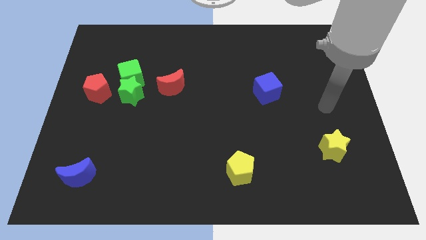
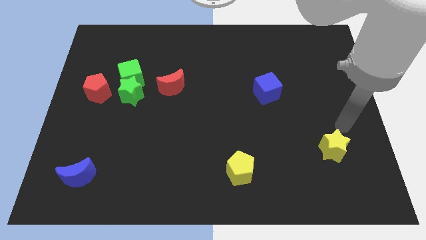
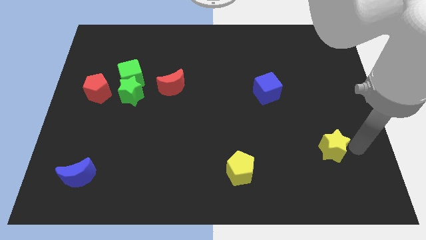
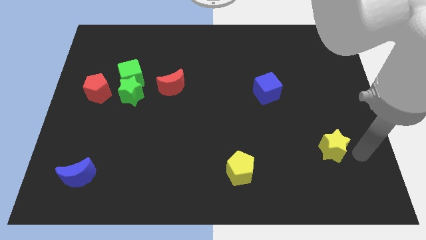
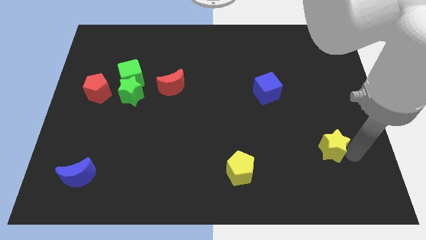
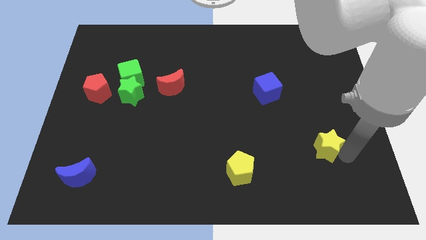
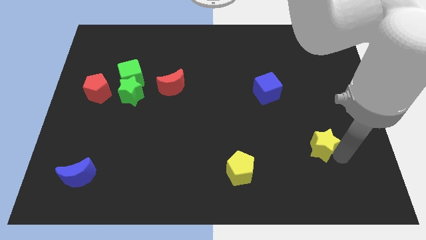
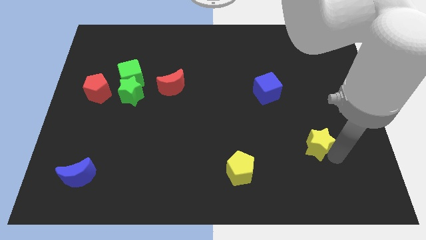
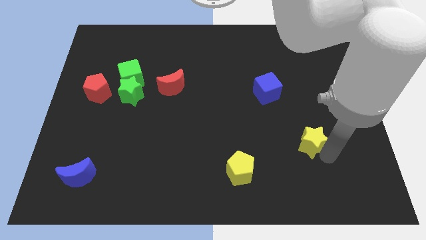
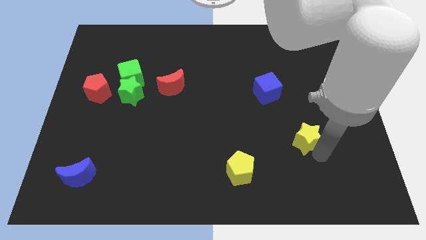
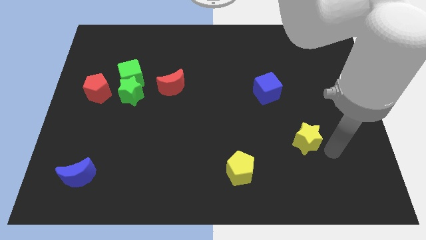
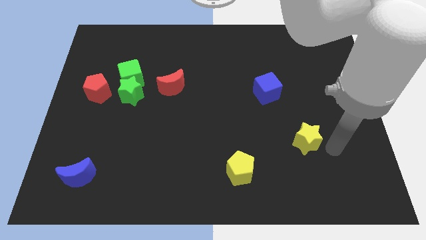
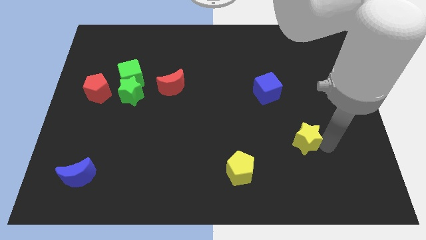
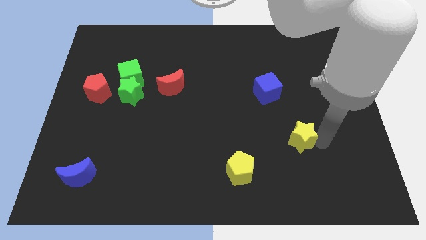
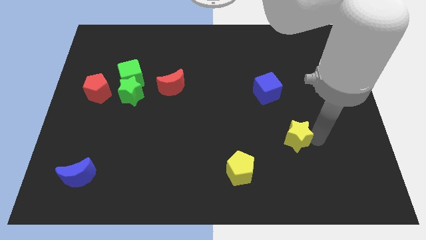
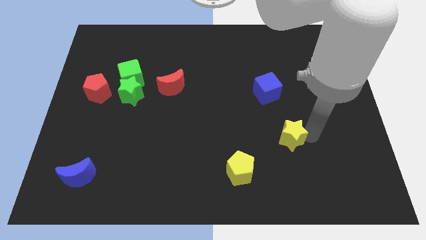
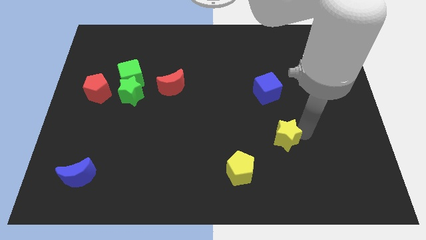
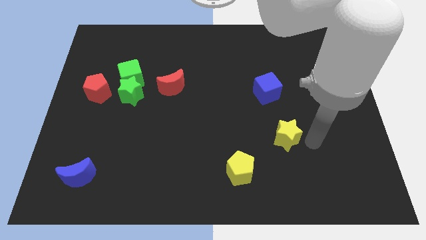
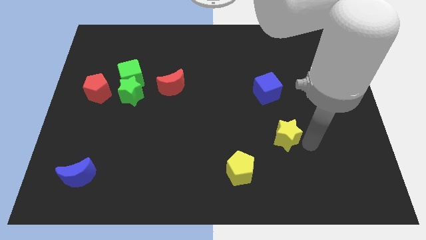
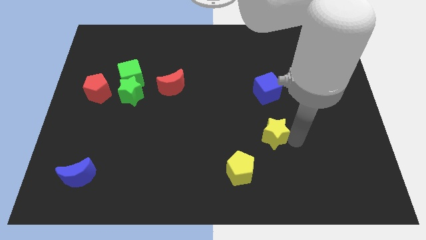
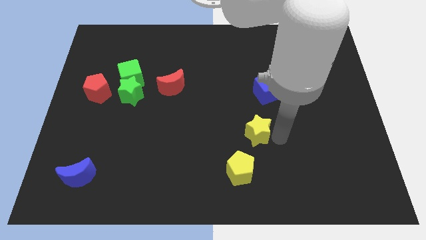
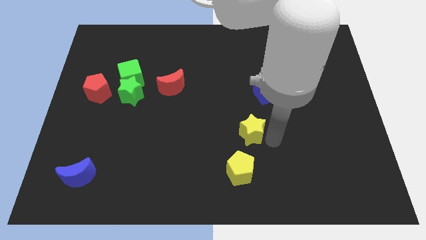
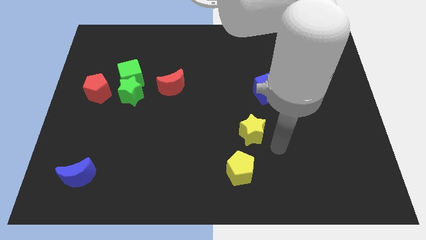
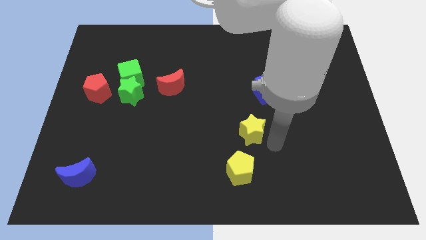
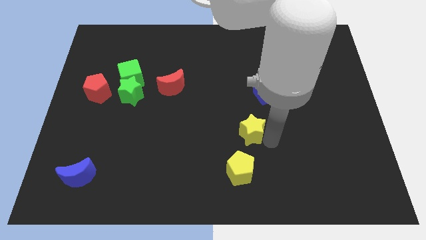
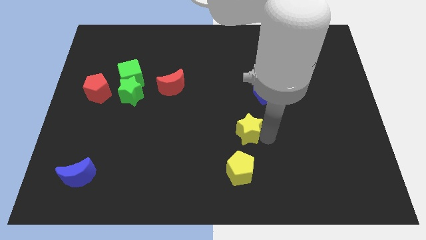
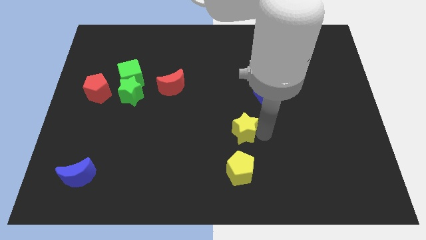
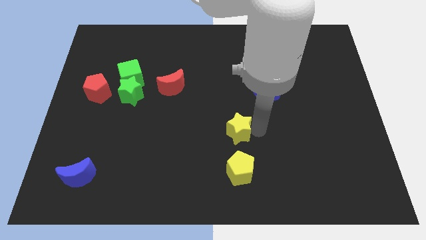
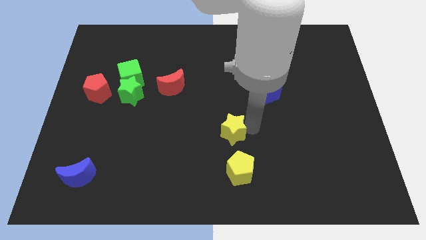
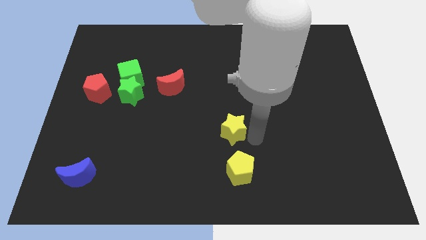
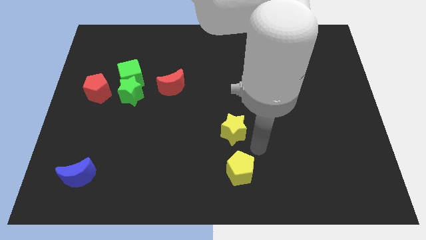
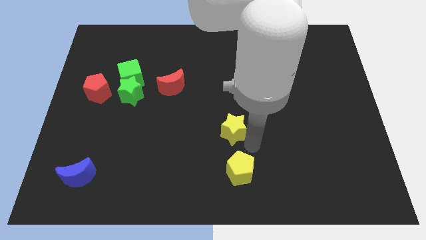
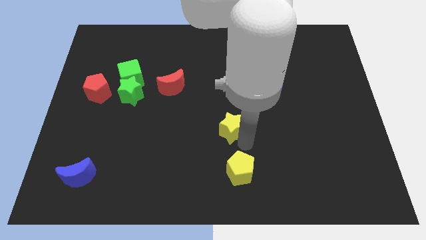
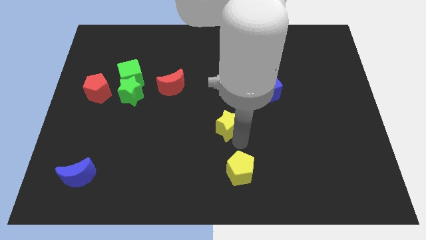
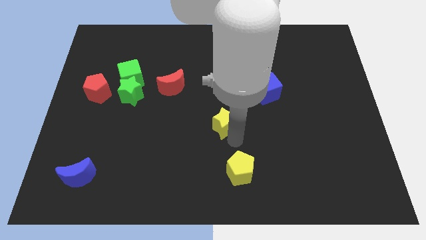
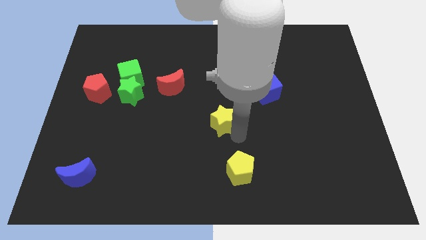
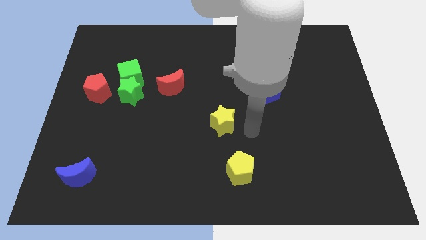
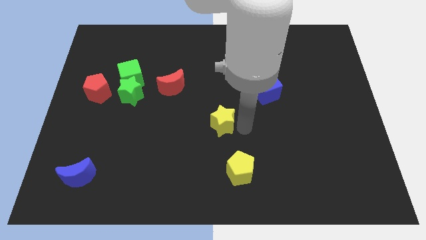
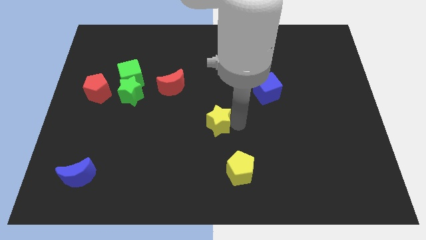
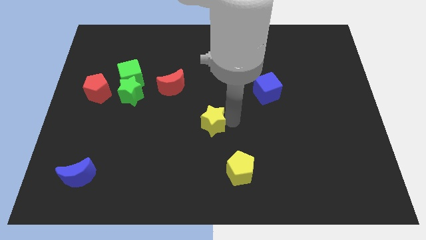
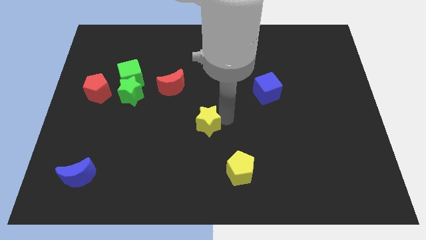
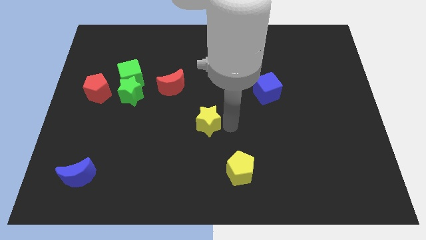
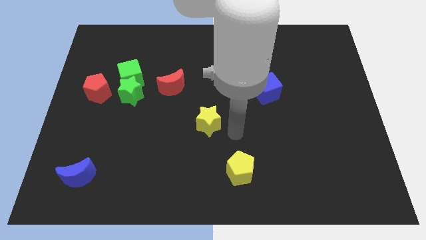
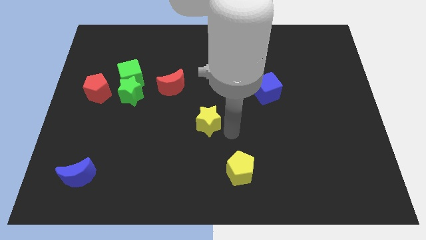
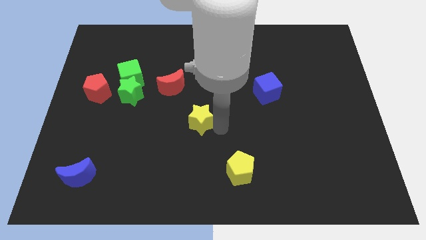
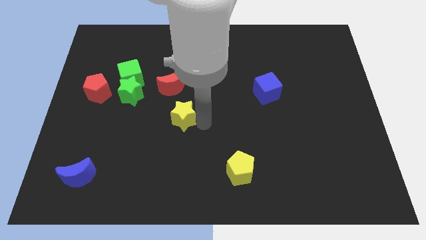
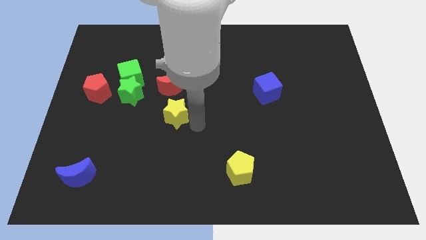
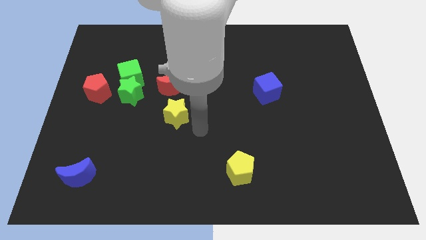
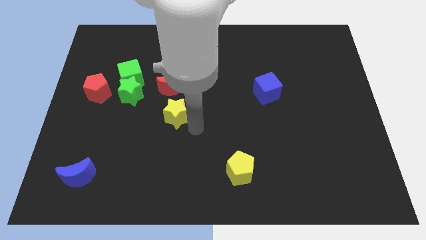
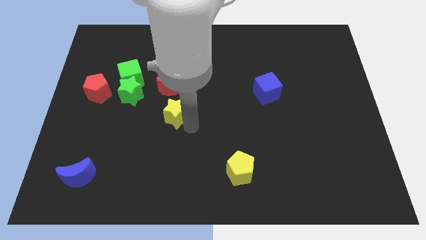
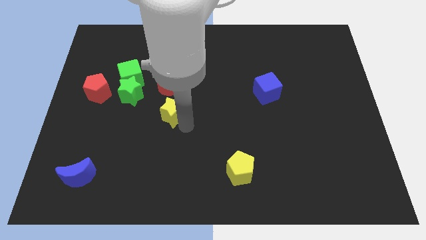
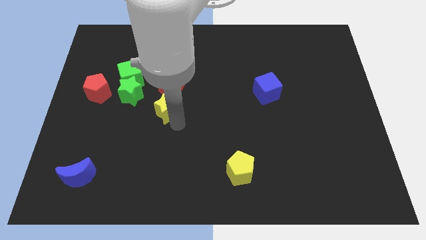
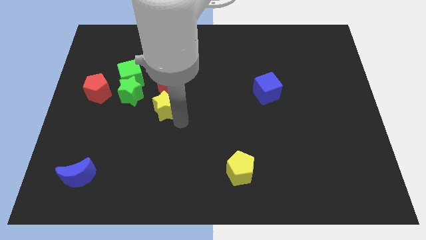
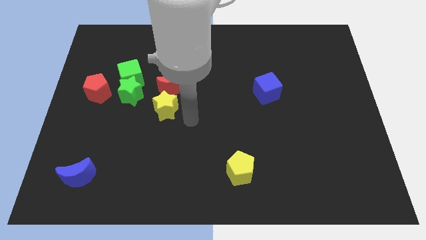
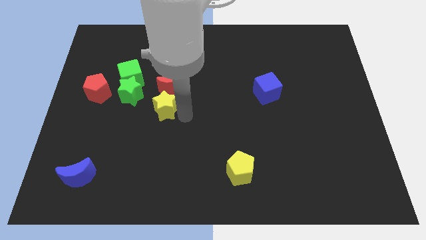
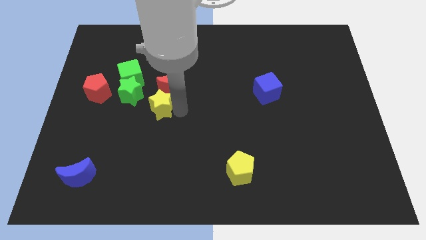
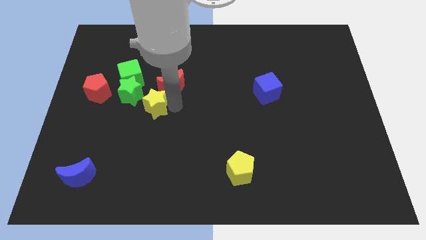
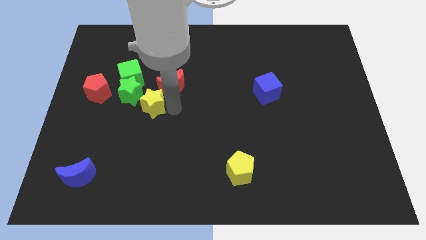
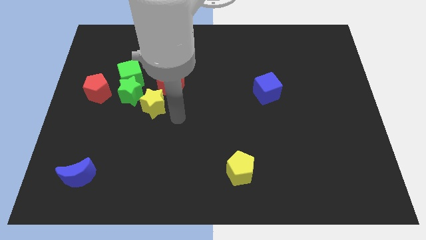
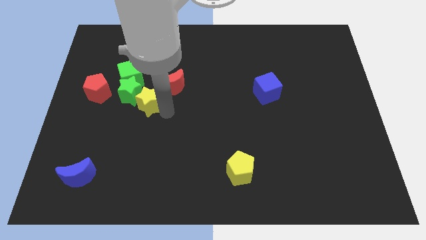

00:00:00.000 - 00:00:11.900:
put the yellow star towards the green star

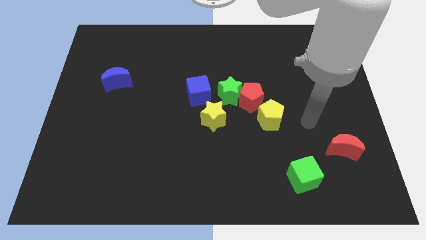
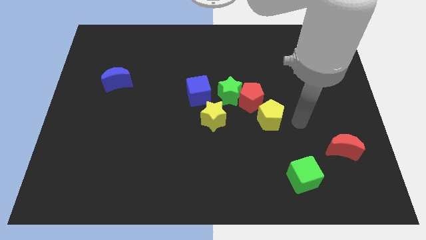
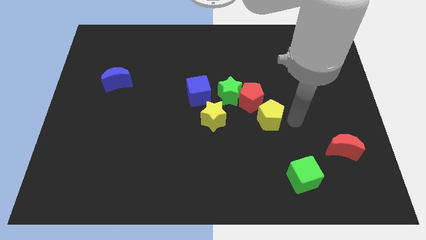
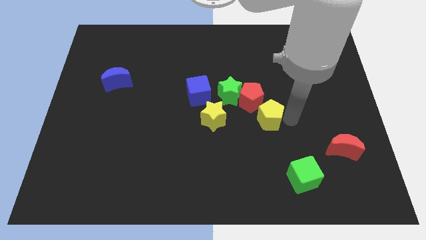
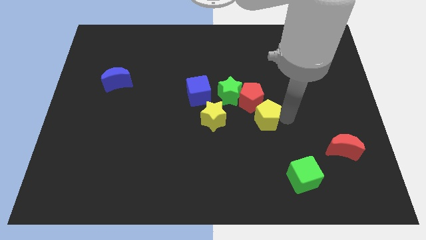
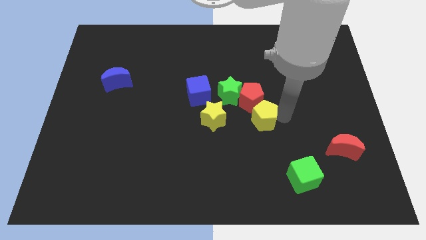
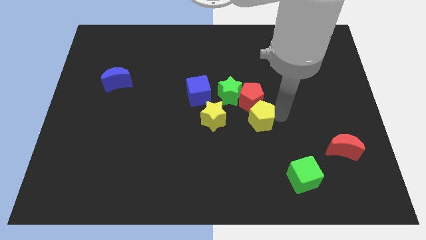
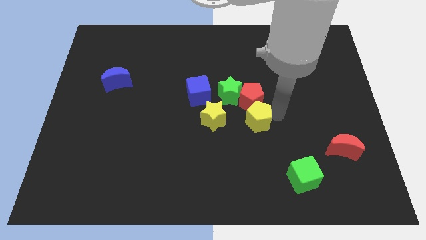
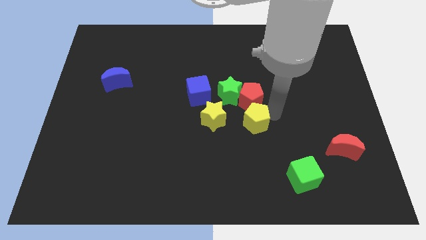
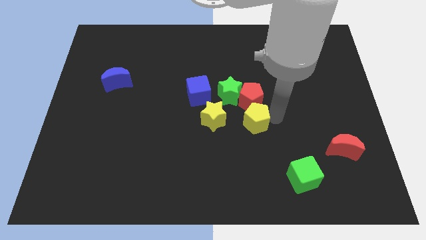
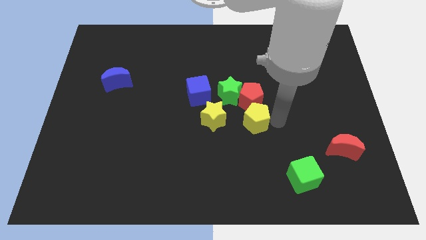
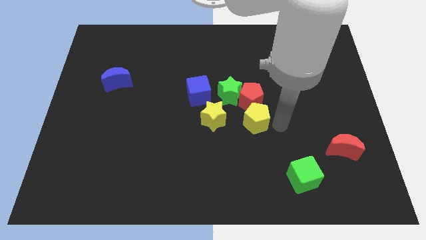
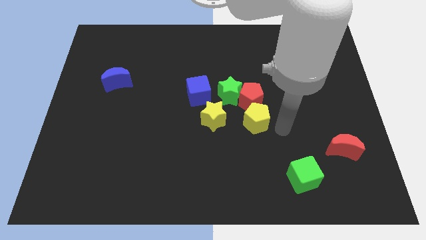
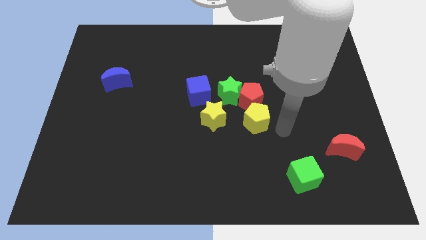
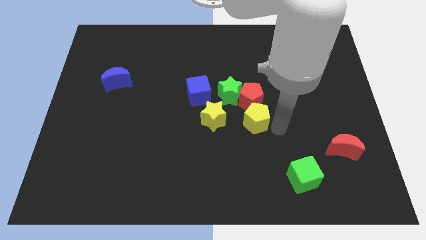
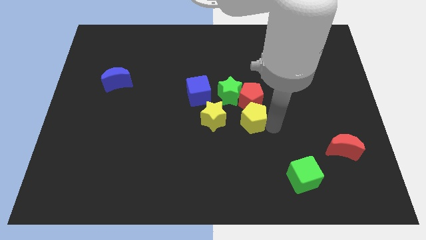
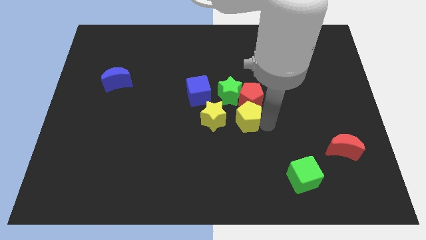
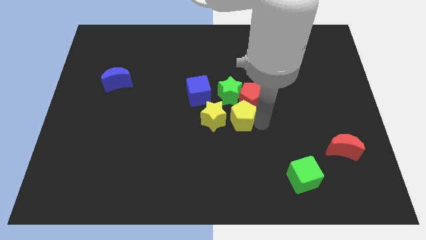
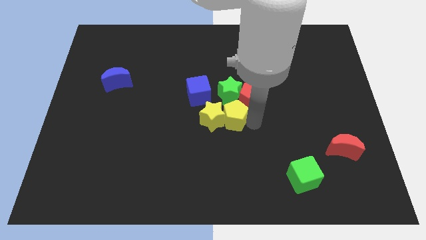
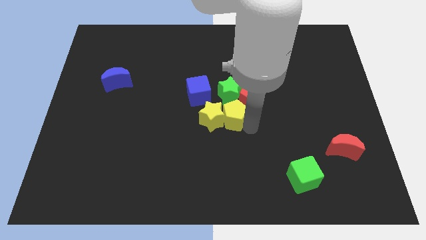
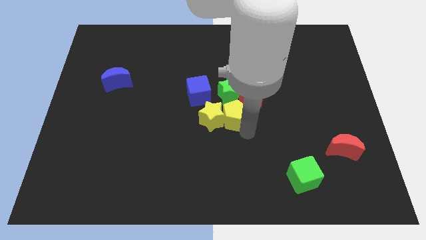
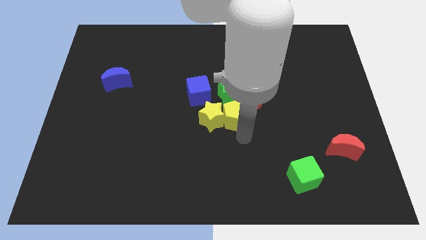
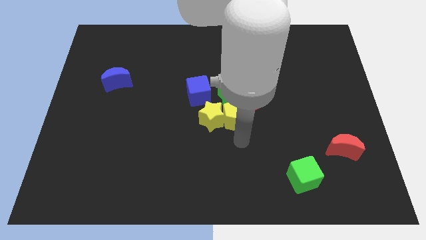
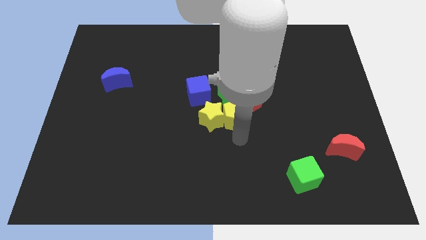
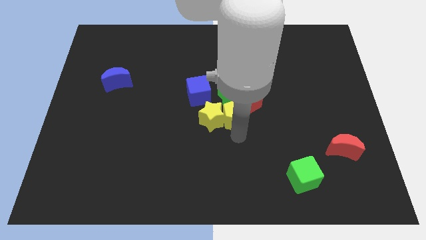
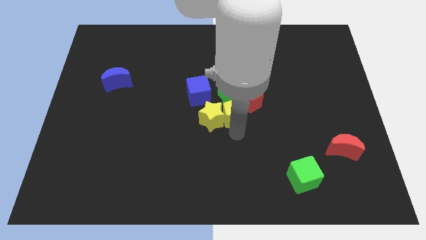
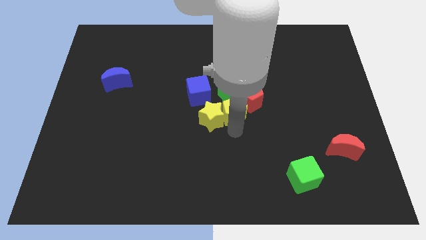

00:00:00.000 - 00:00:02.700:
slide the yellow pentagon close to the green star
